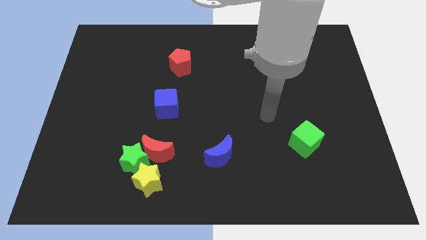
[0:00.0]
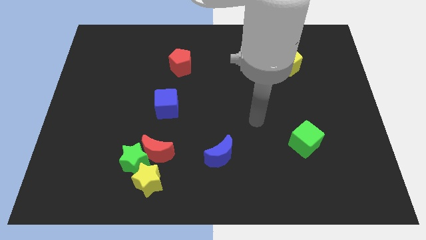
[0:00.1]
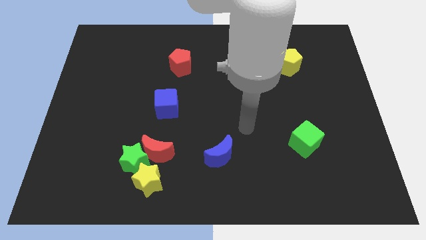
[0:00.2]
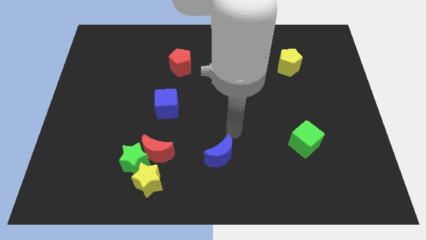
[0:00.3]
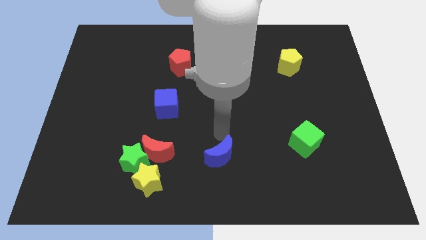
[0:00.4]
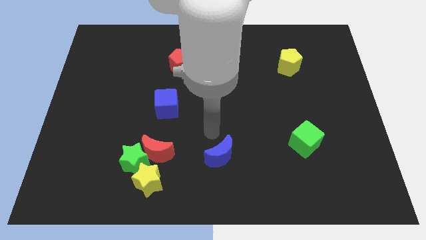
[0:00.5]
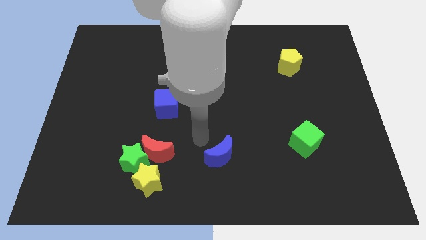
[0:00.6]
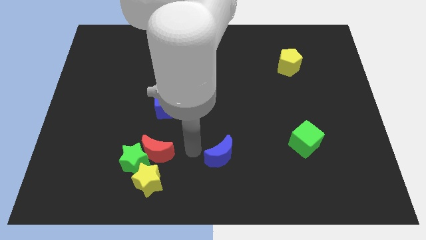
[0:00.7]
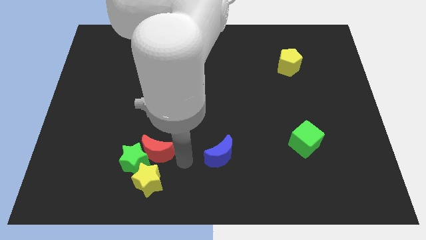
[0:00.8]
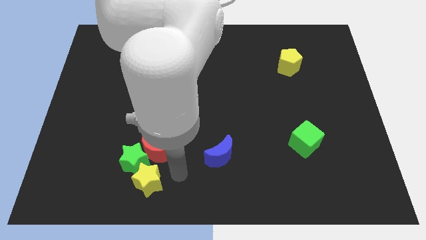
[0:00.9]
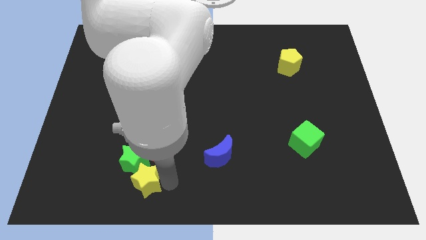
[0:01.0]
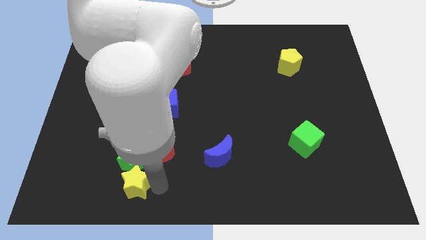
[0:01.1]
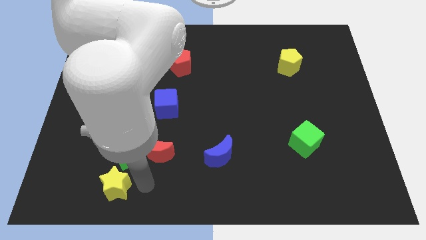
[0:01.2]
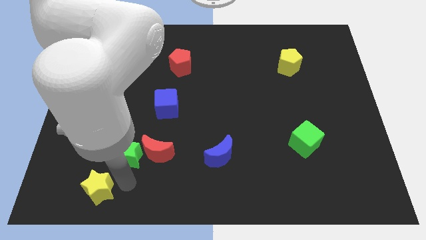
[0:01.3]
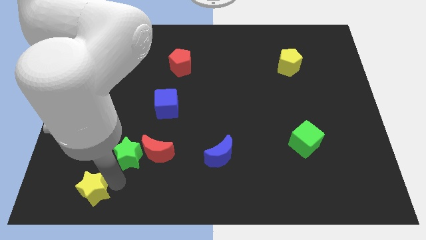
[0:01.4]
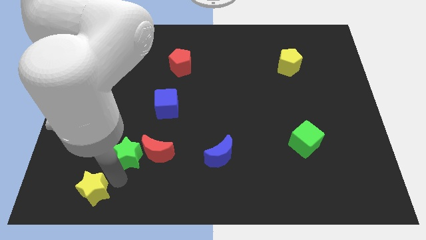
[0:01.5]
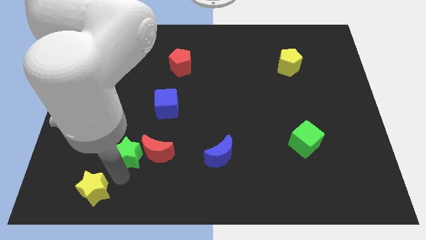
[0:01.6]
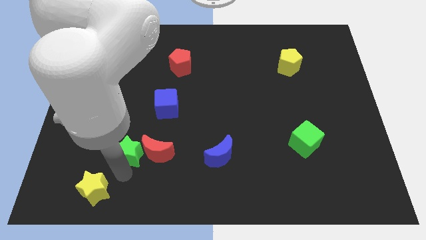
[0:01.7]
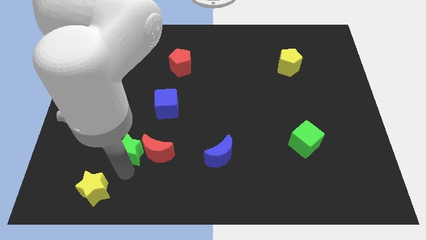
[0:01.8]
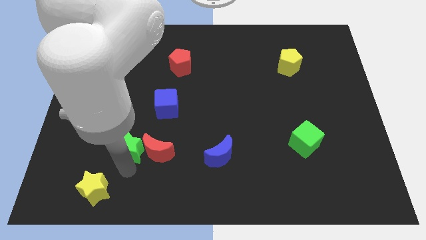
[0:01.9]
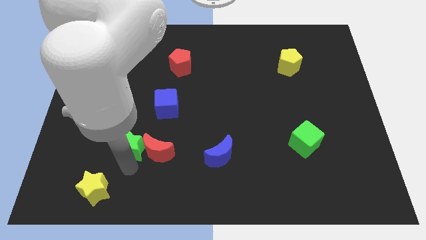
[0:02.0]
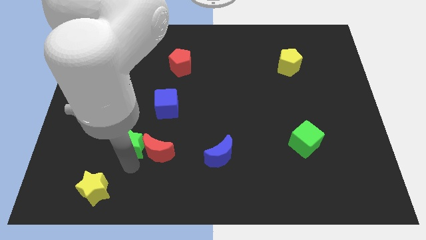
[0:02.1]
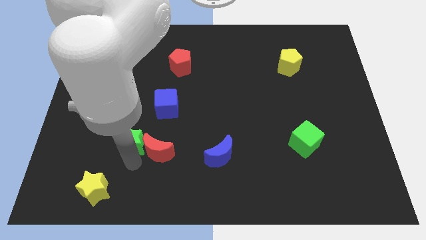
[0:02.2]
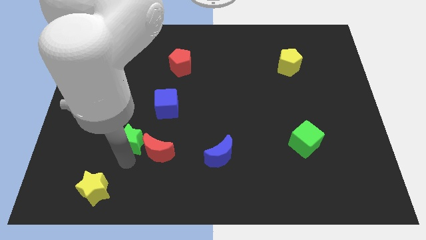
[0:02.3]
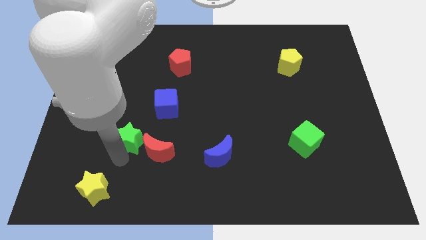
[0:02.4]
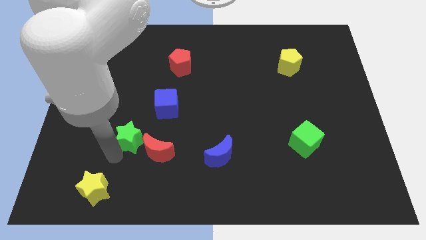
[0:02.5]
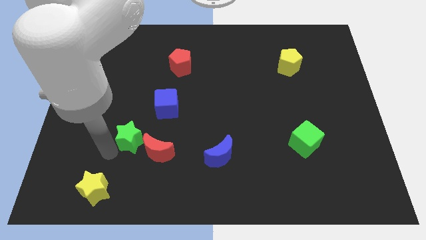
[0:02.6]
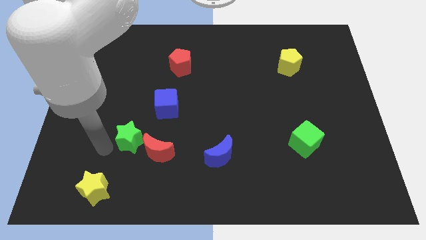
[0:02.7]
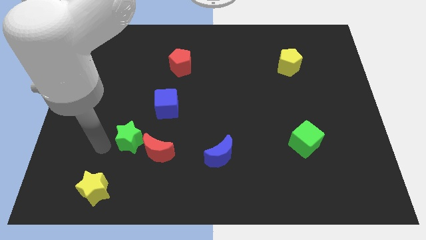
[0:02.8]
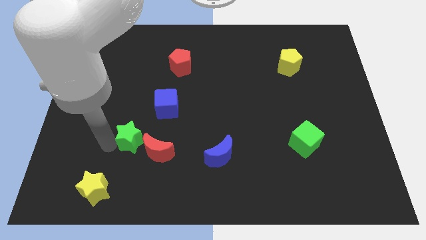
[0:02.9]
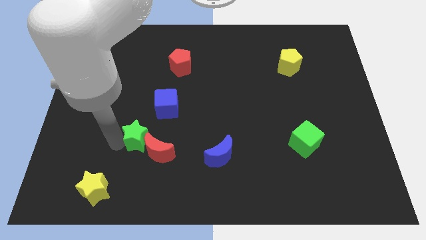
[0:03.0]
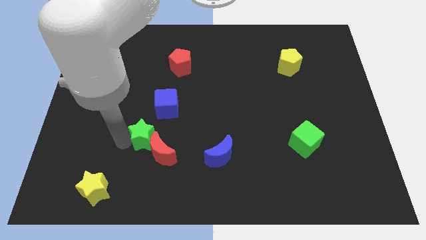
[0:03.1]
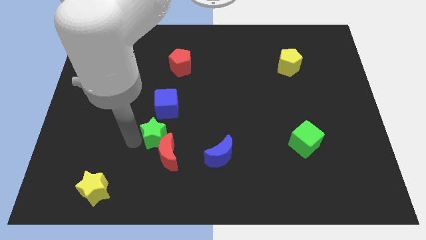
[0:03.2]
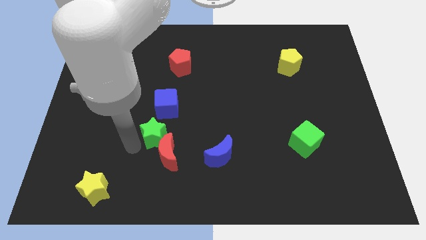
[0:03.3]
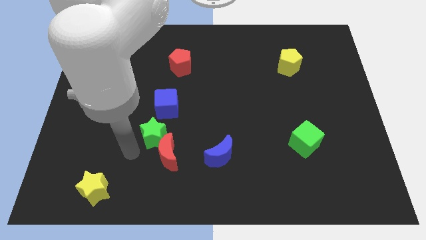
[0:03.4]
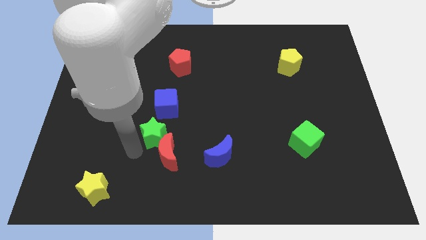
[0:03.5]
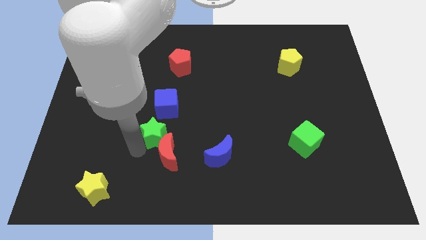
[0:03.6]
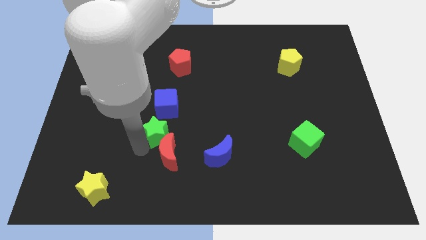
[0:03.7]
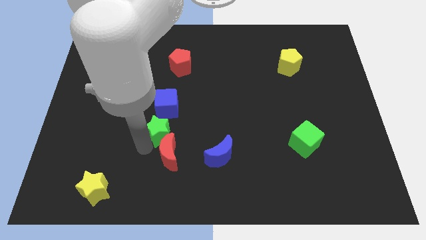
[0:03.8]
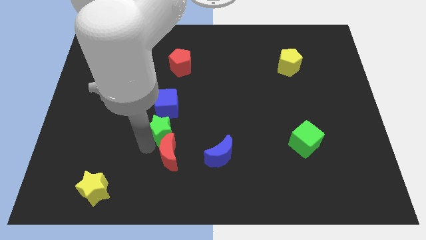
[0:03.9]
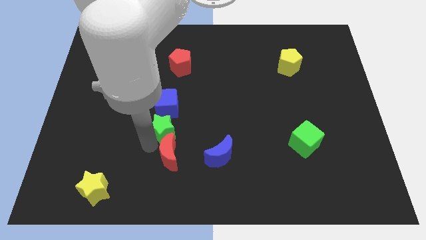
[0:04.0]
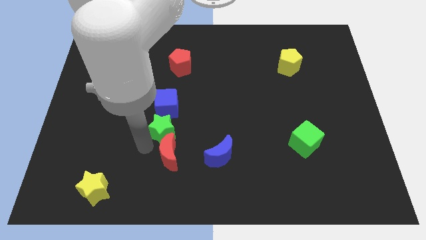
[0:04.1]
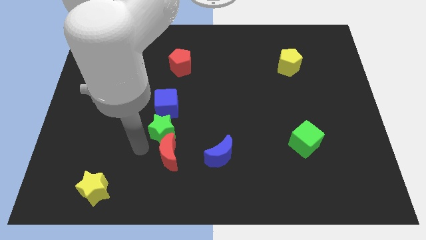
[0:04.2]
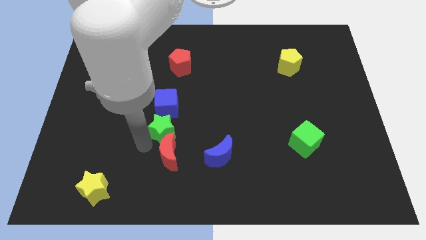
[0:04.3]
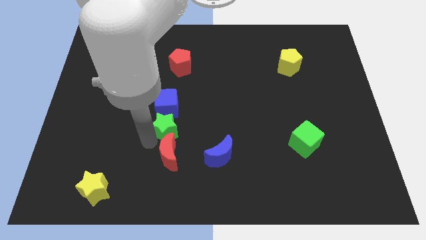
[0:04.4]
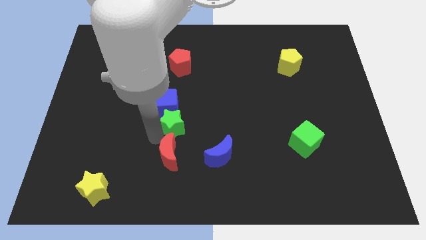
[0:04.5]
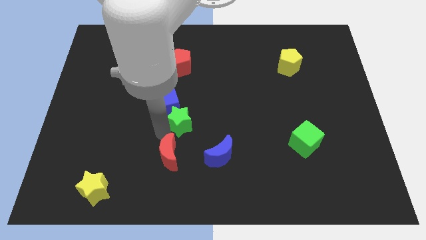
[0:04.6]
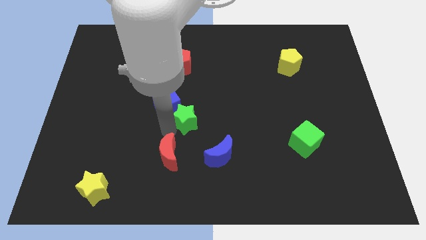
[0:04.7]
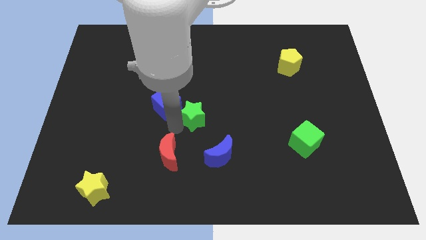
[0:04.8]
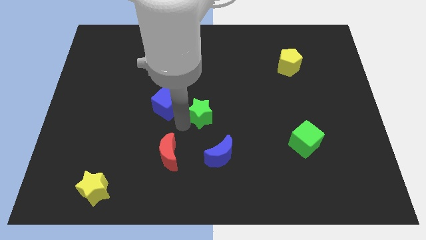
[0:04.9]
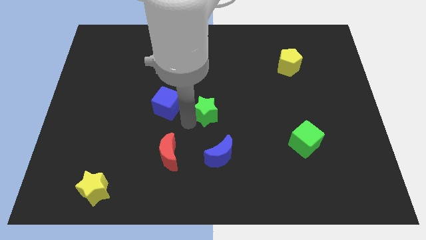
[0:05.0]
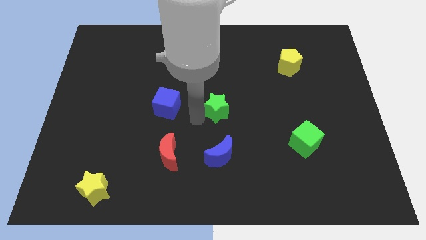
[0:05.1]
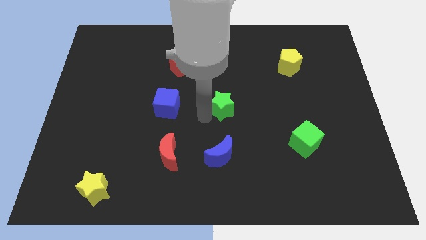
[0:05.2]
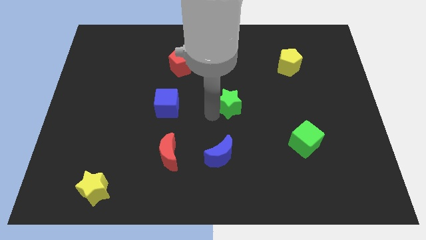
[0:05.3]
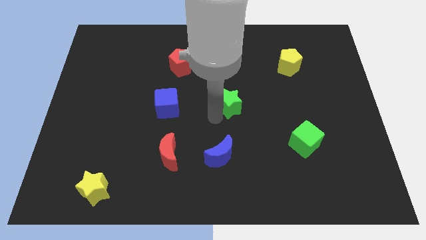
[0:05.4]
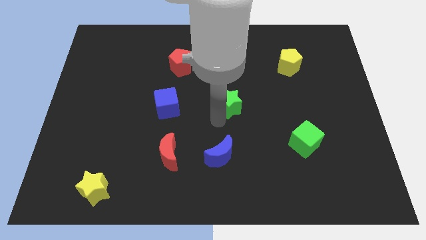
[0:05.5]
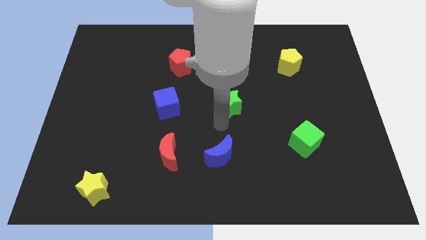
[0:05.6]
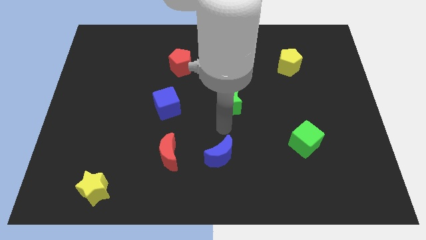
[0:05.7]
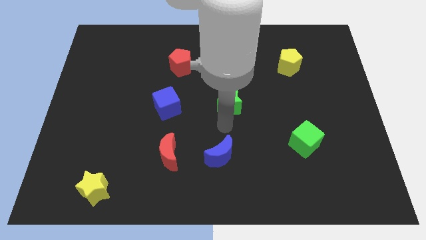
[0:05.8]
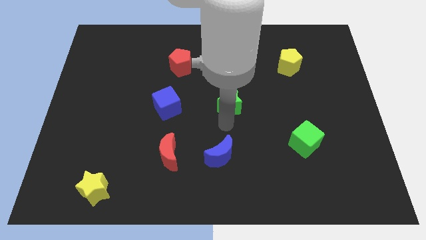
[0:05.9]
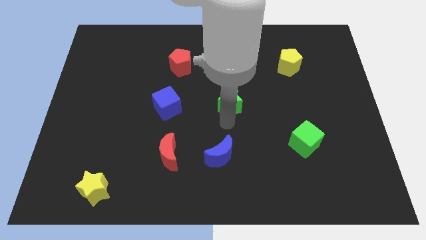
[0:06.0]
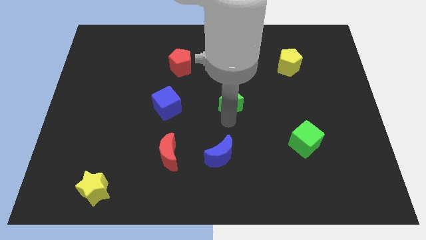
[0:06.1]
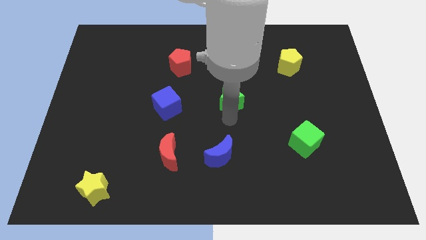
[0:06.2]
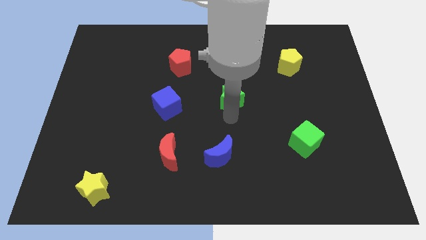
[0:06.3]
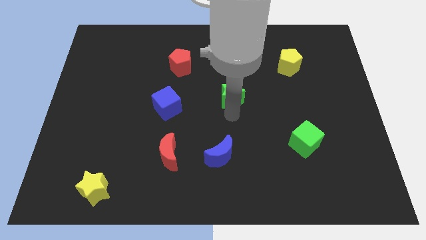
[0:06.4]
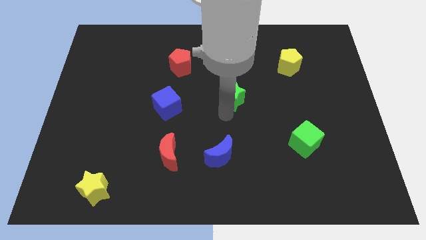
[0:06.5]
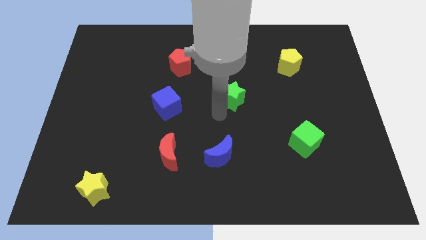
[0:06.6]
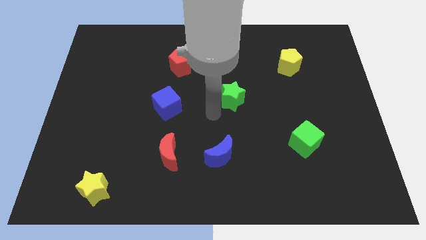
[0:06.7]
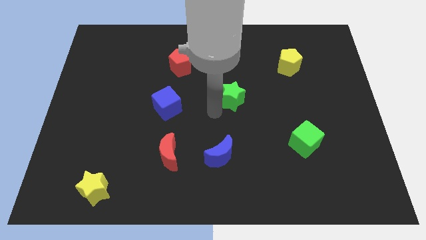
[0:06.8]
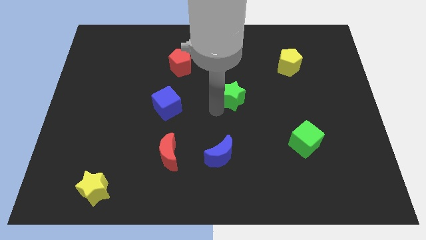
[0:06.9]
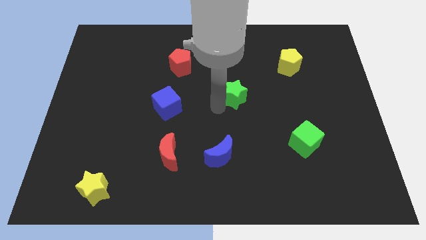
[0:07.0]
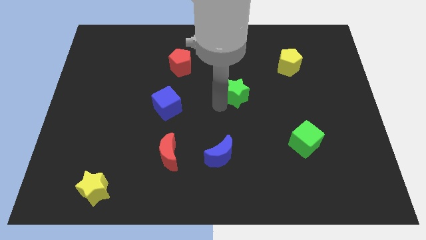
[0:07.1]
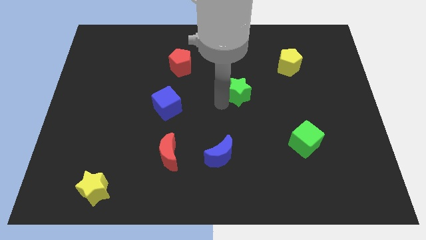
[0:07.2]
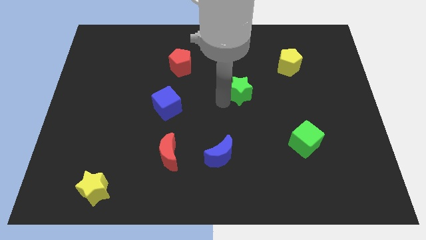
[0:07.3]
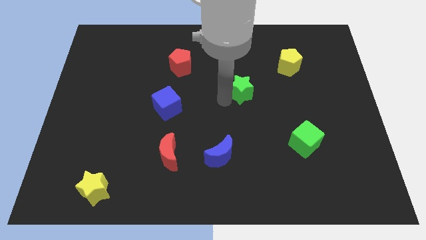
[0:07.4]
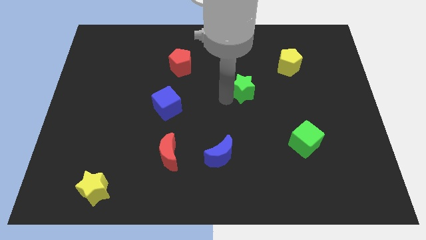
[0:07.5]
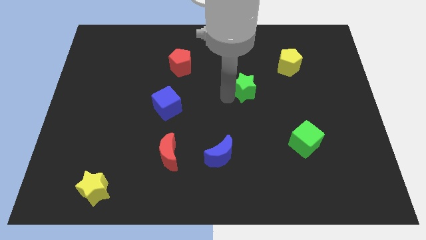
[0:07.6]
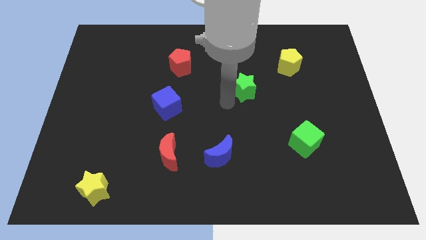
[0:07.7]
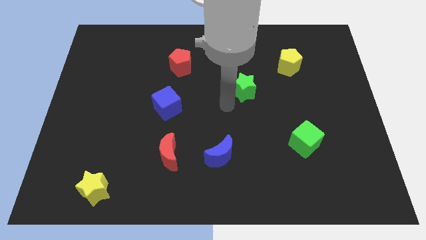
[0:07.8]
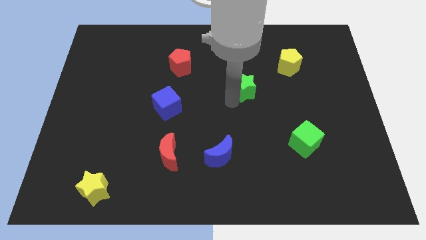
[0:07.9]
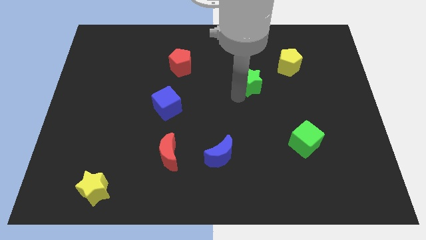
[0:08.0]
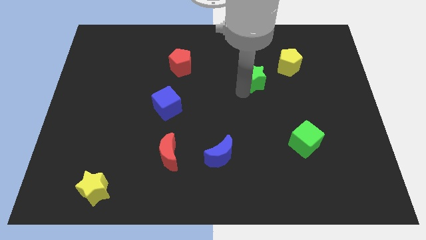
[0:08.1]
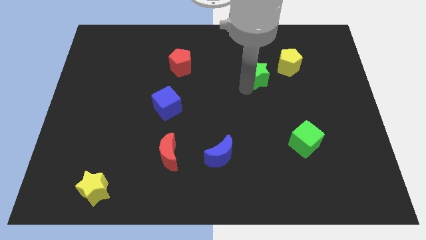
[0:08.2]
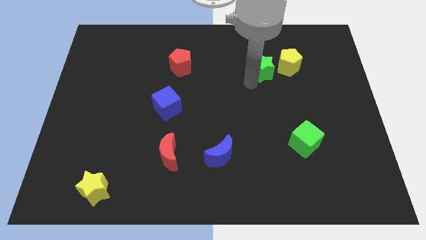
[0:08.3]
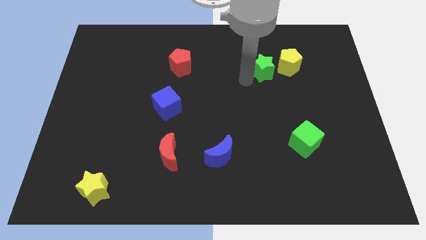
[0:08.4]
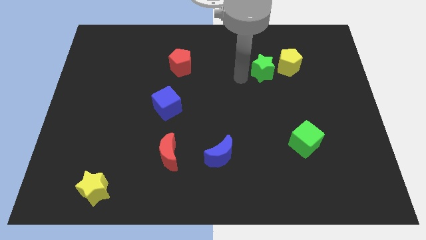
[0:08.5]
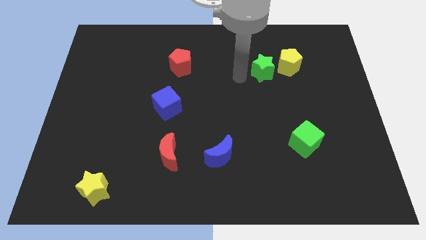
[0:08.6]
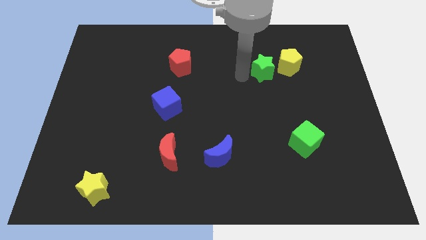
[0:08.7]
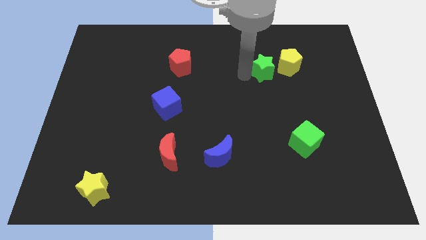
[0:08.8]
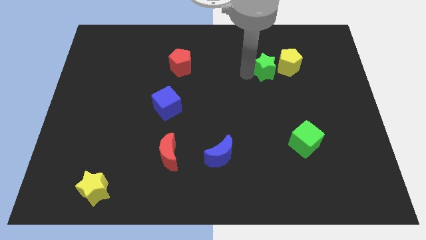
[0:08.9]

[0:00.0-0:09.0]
slide the green star to the yellow pentagon
